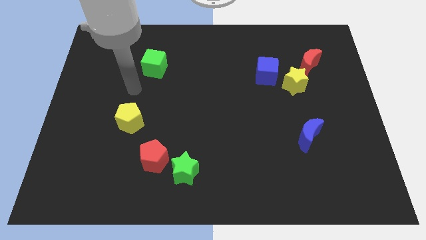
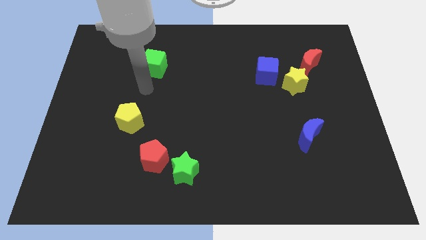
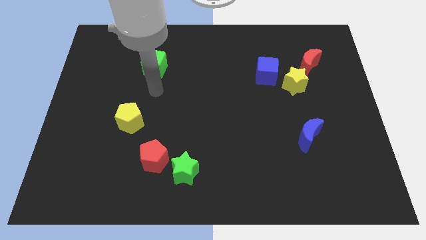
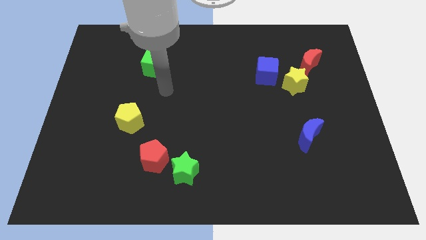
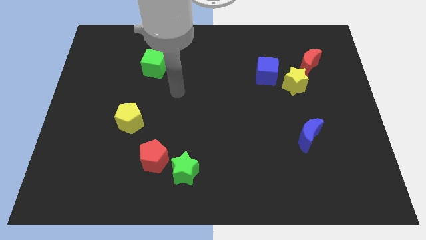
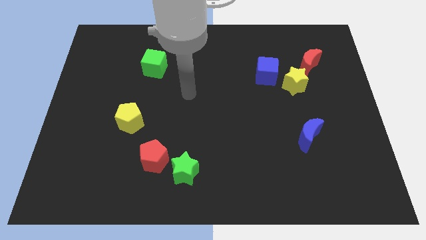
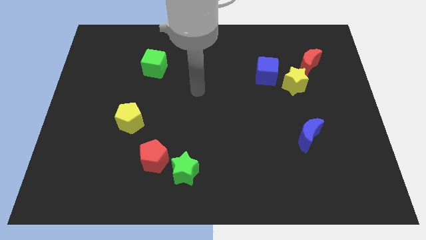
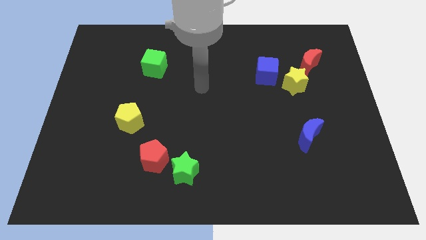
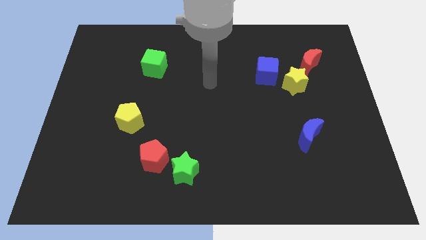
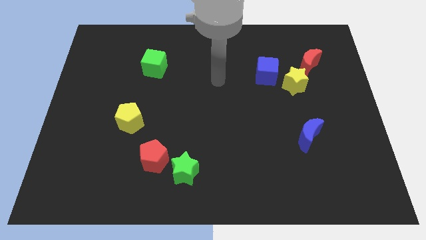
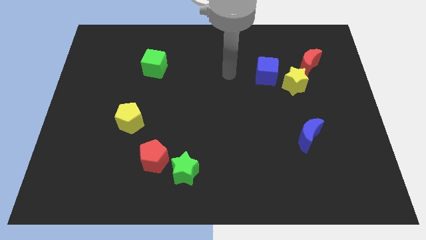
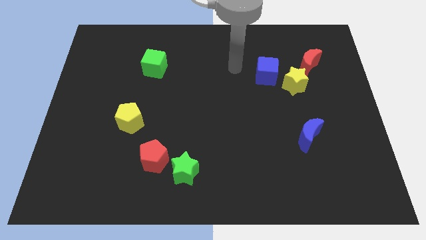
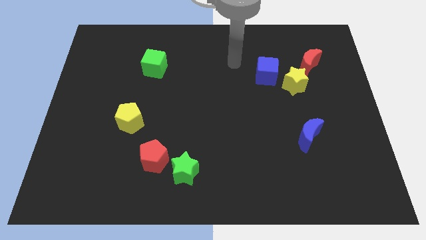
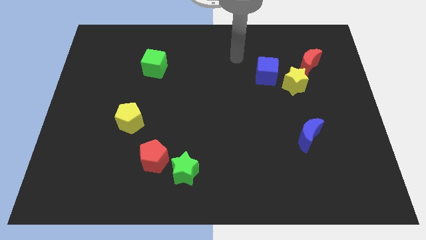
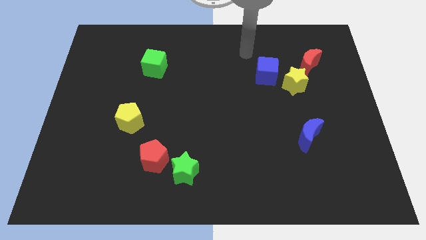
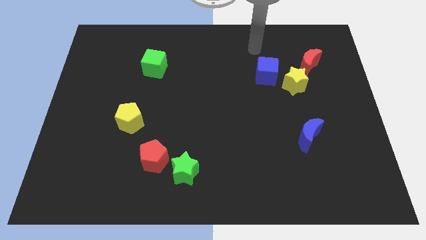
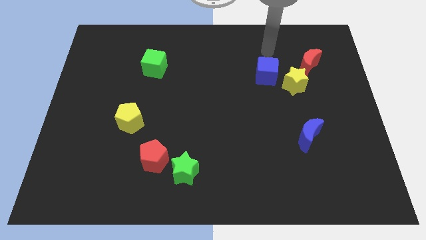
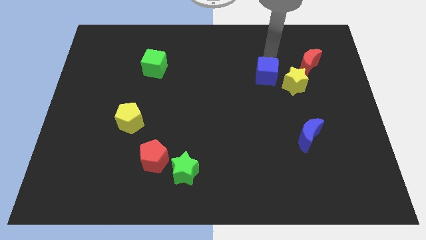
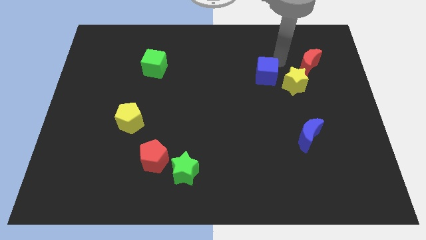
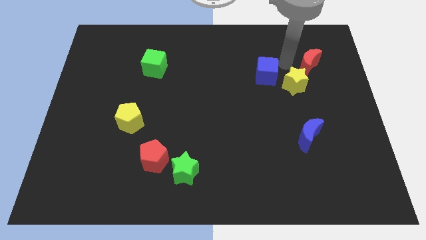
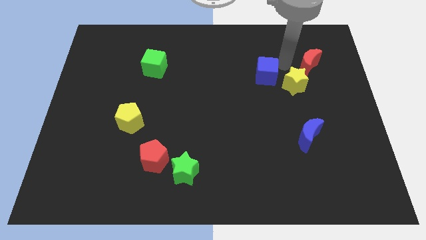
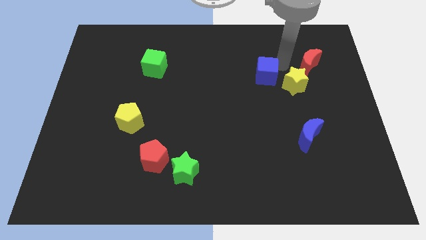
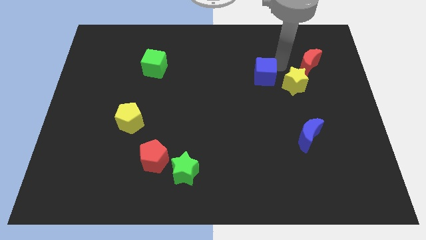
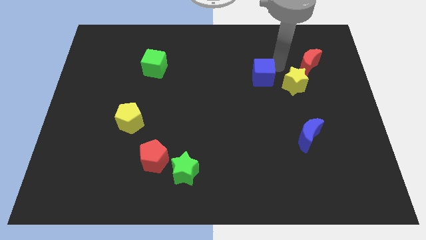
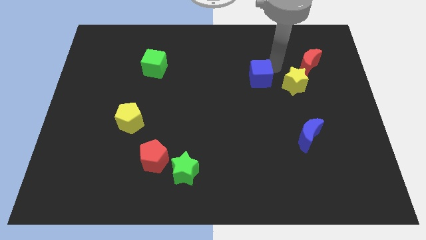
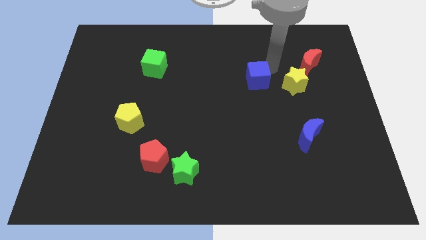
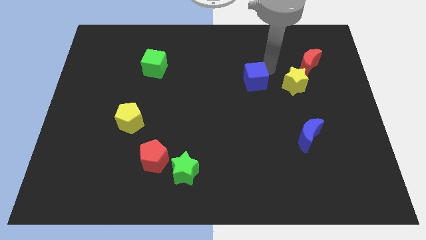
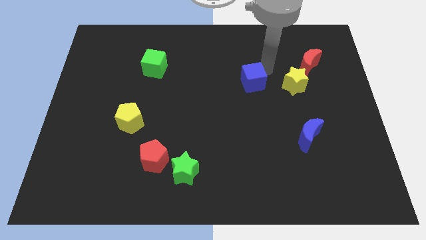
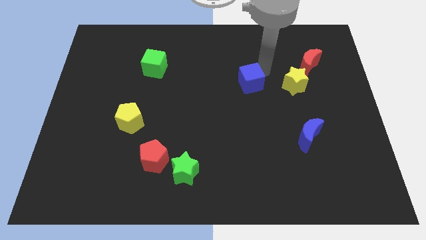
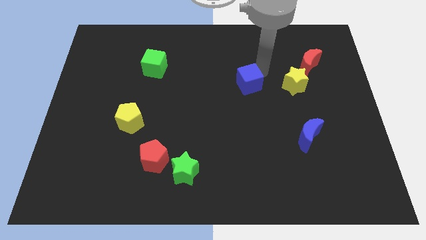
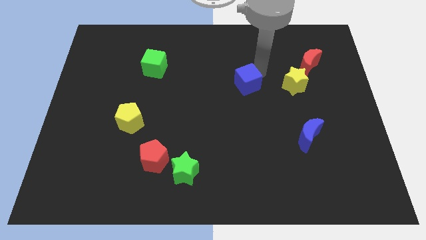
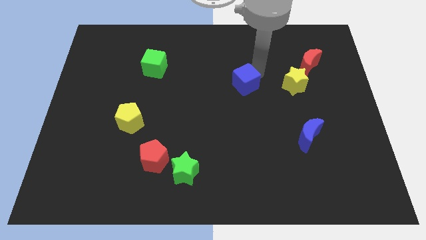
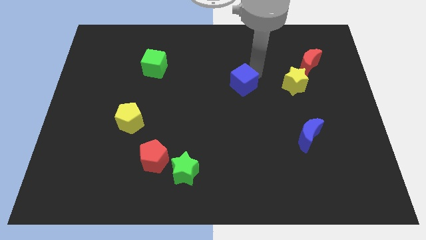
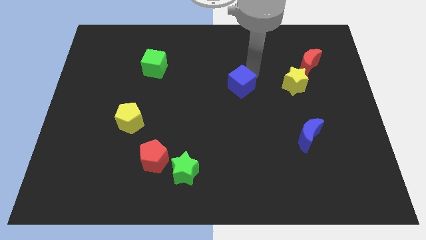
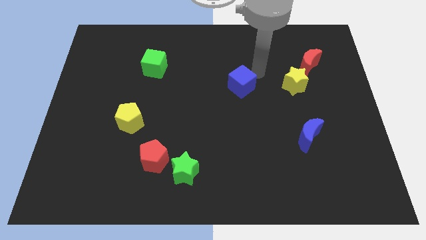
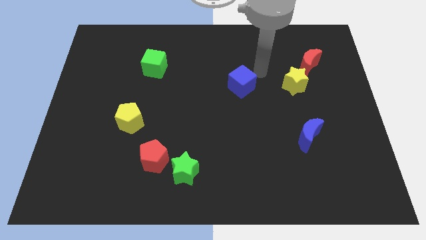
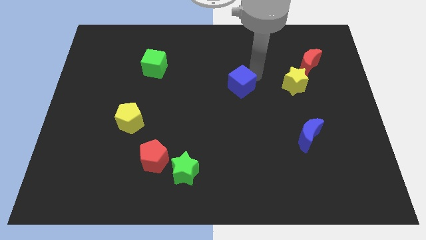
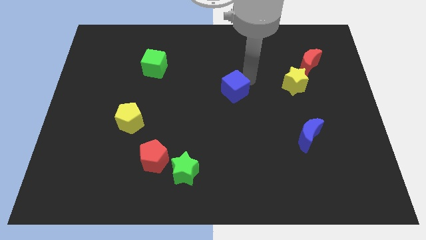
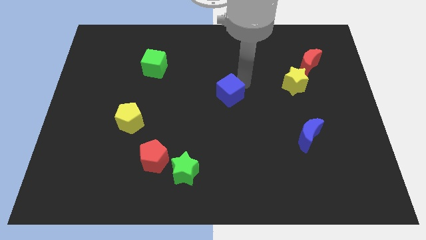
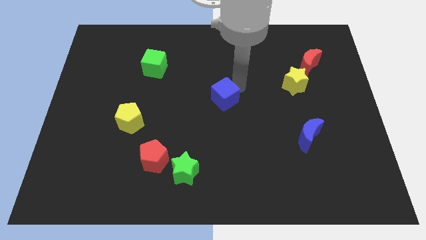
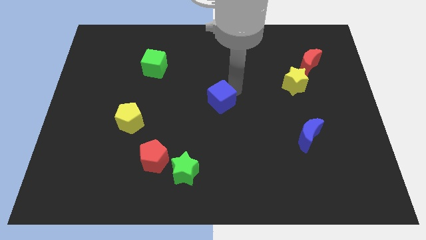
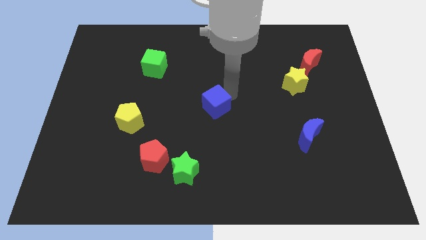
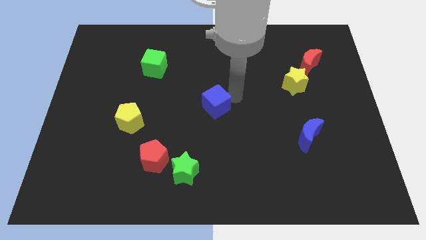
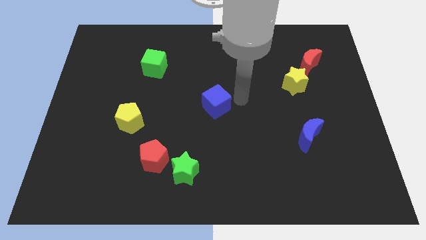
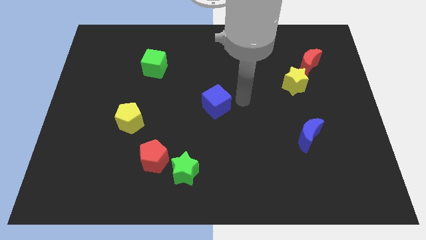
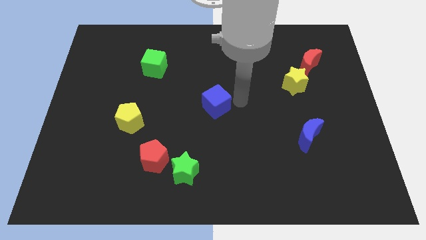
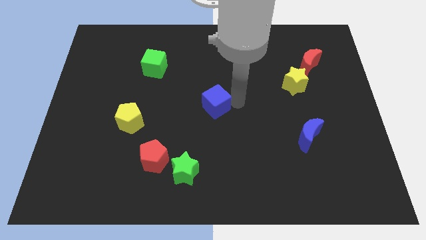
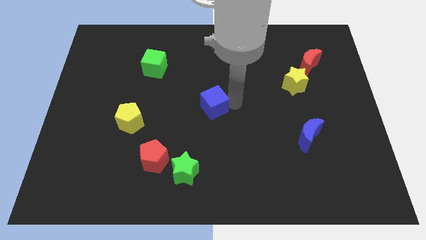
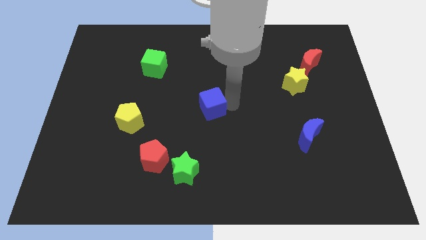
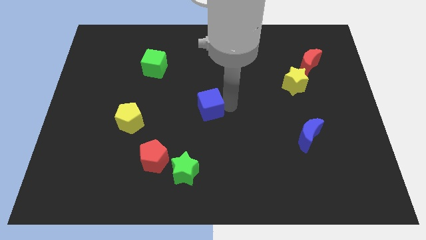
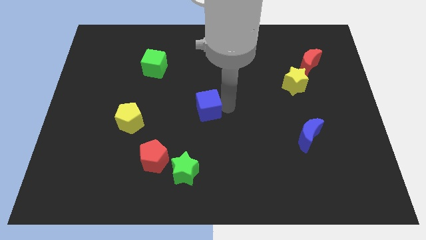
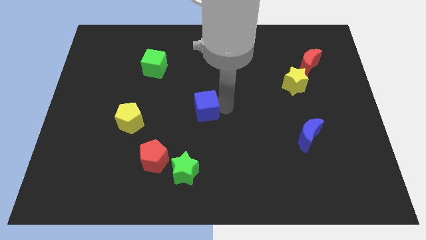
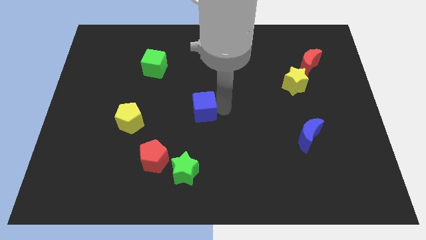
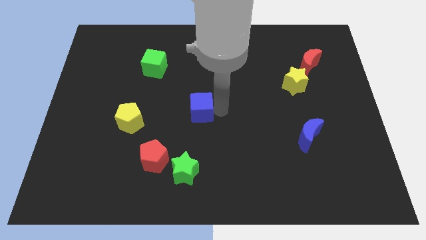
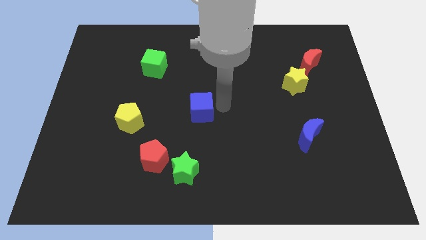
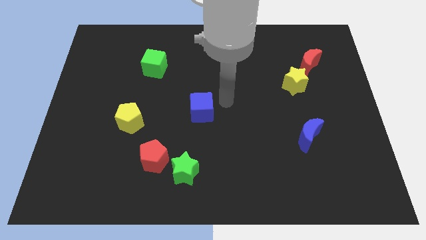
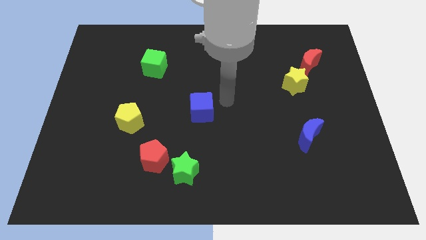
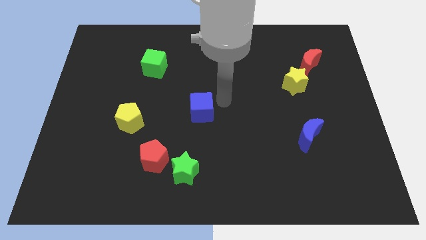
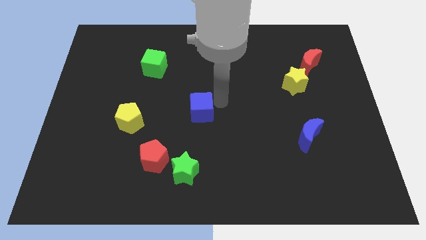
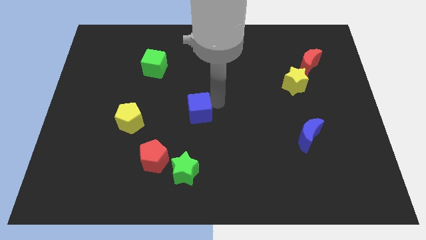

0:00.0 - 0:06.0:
slide the blue cube right of the yellow pentagon

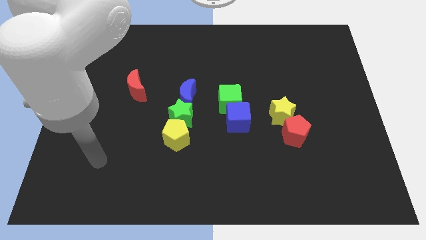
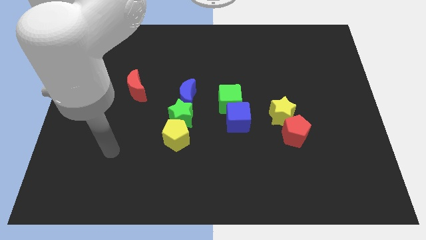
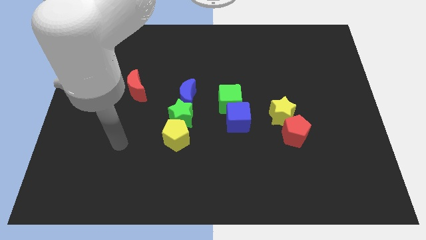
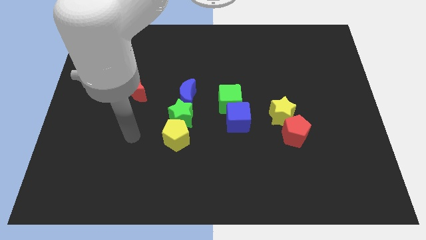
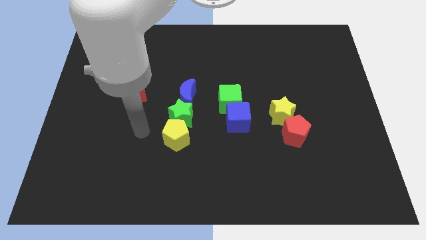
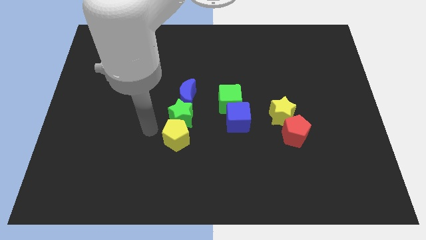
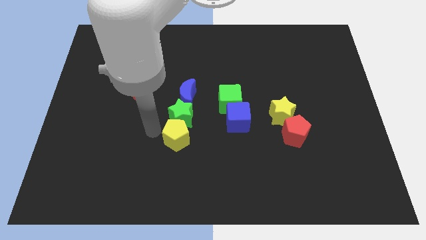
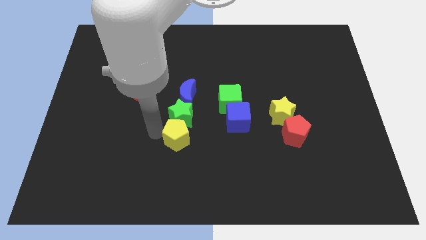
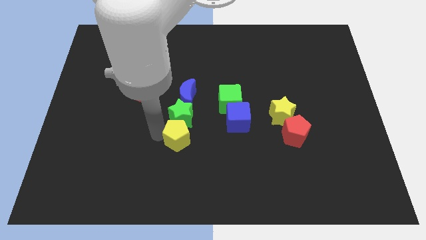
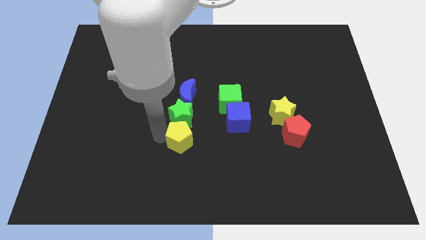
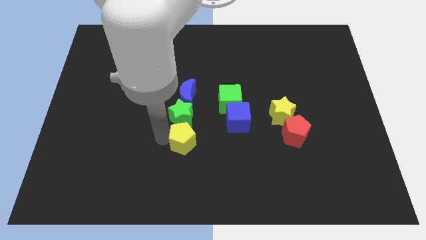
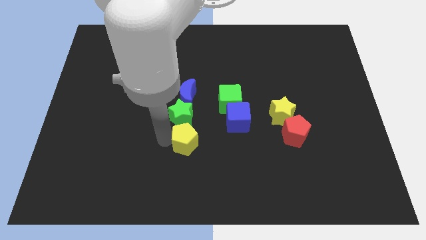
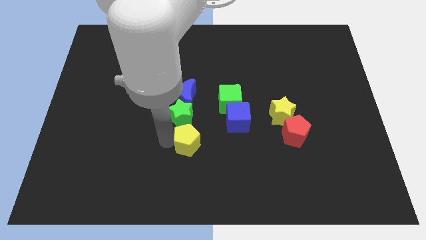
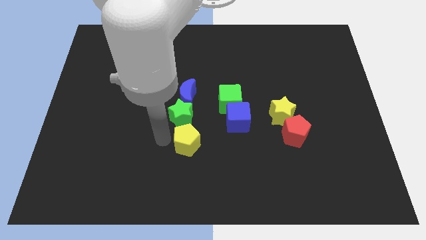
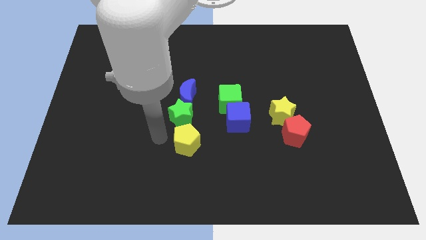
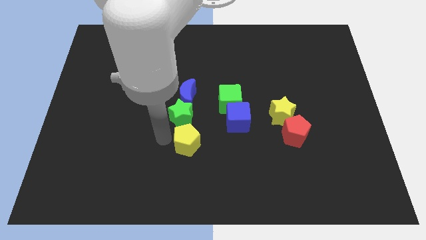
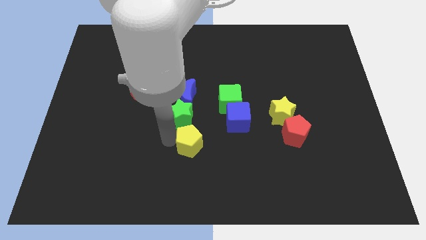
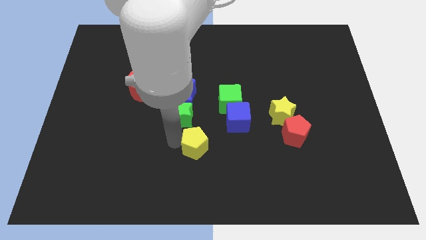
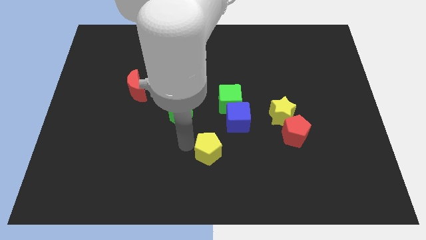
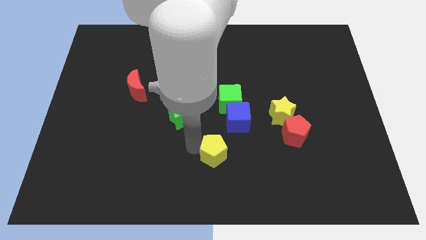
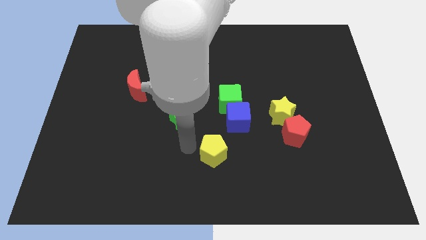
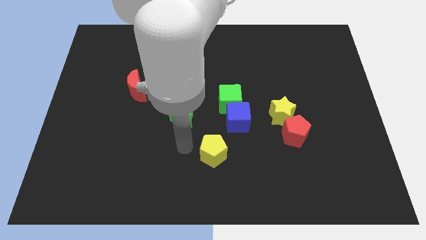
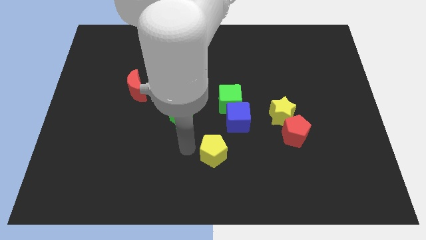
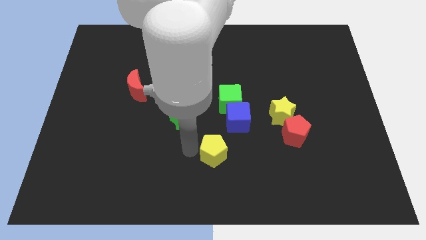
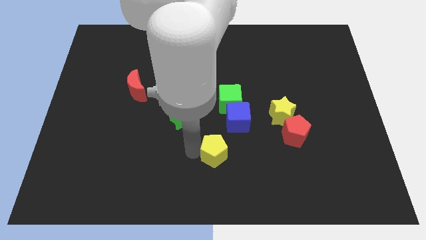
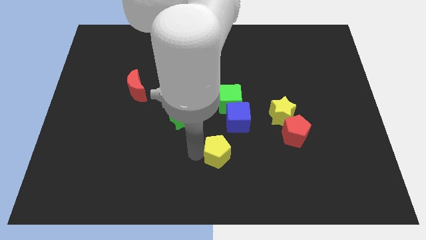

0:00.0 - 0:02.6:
push the yellow pentagon to the bottom of the blue cube
